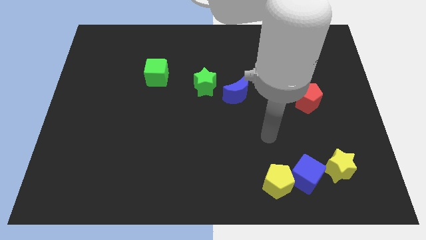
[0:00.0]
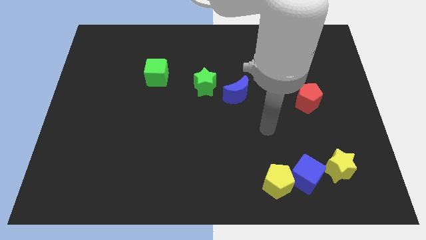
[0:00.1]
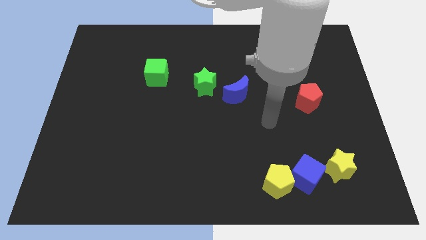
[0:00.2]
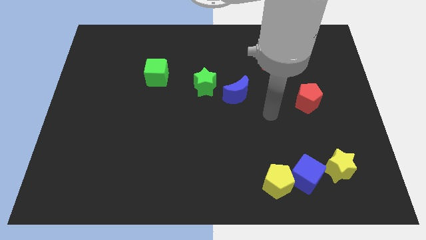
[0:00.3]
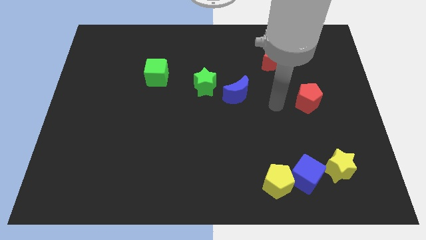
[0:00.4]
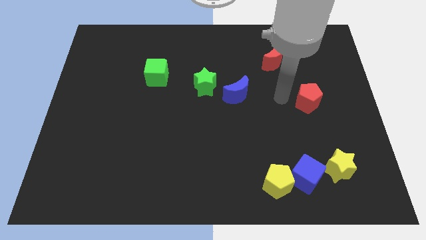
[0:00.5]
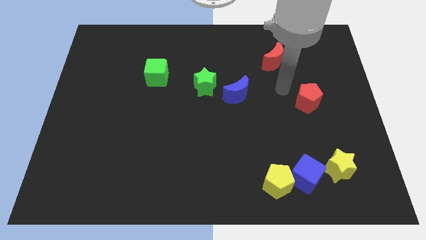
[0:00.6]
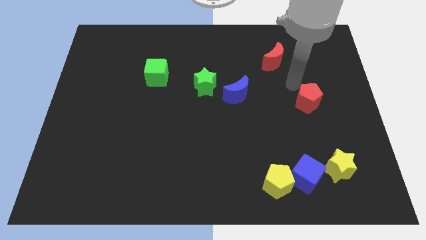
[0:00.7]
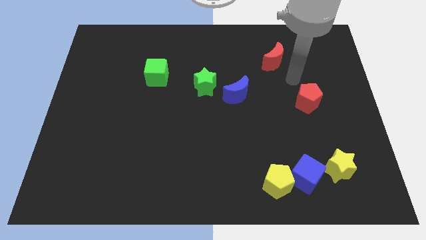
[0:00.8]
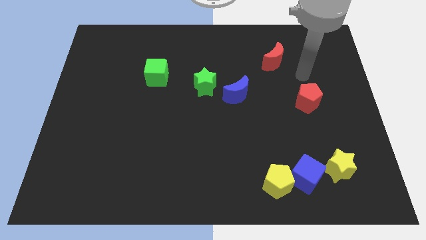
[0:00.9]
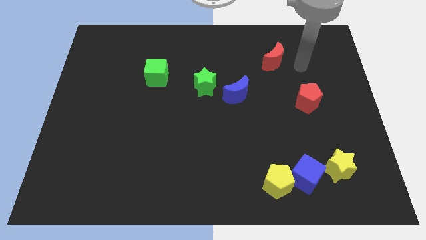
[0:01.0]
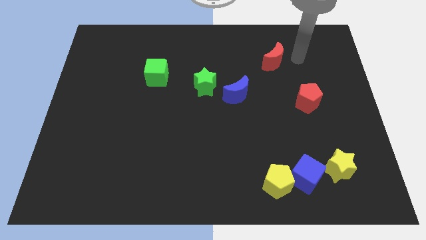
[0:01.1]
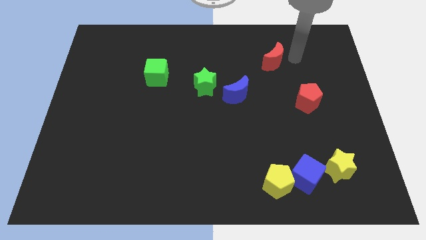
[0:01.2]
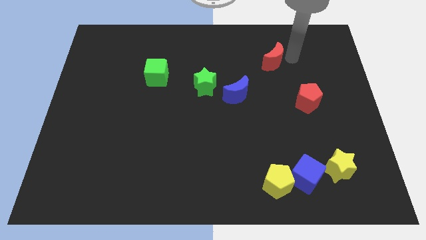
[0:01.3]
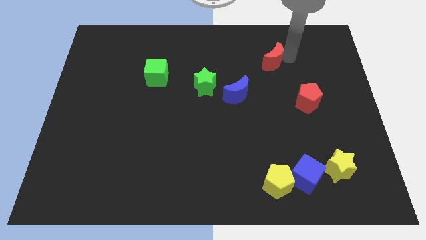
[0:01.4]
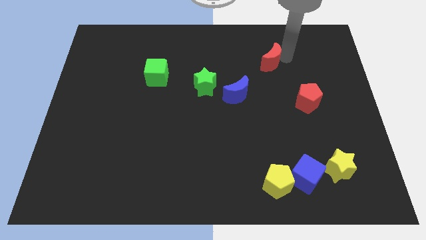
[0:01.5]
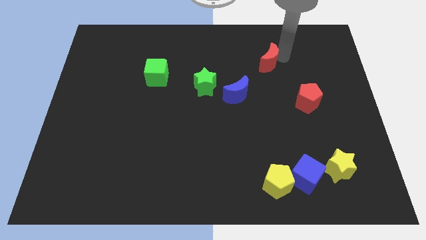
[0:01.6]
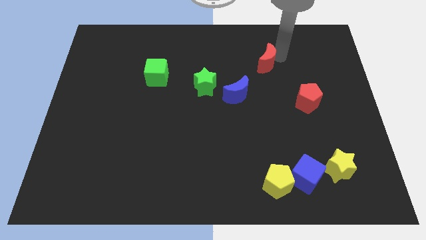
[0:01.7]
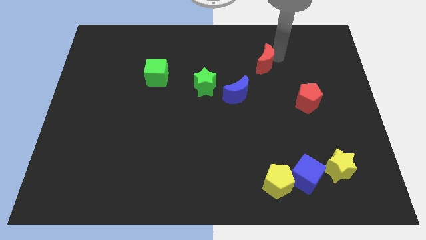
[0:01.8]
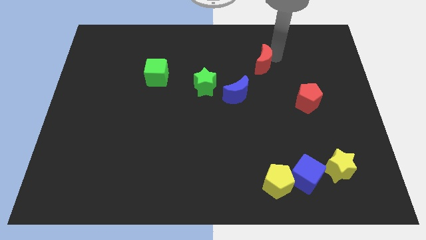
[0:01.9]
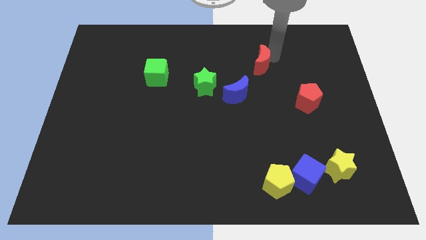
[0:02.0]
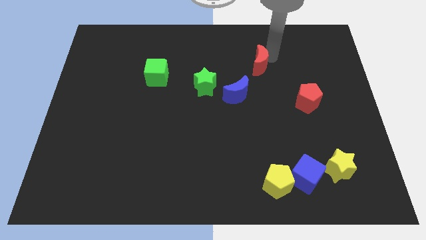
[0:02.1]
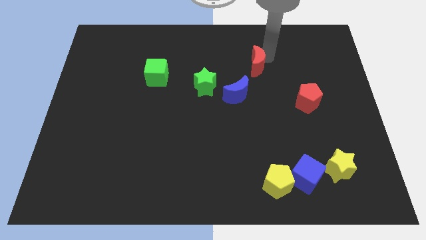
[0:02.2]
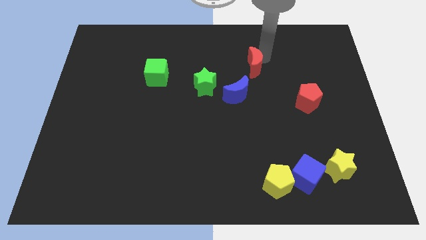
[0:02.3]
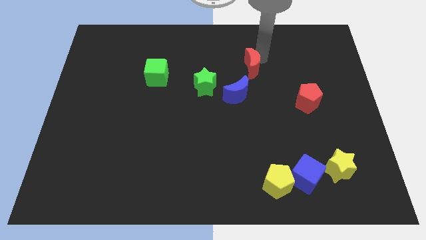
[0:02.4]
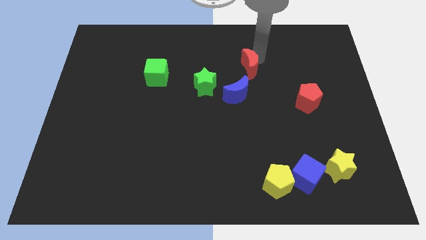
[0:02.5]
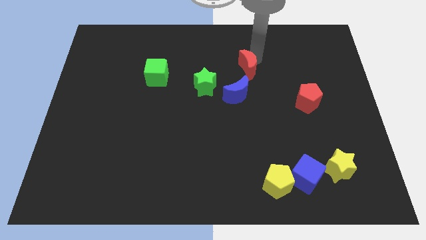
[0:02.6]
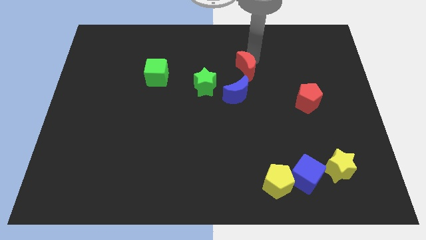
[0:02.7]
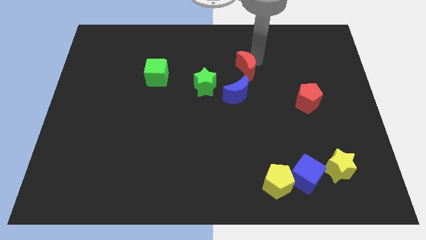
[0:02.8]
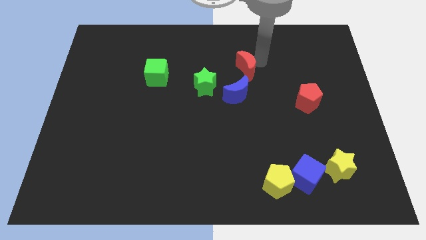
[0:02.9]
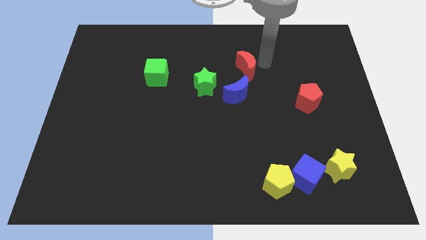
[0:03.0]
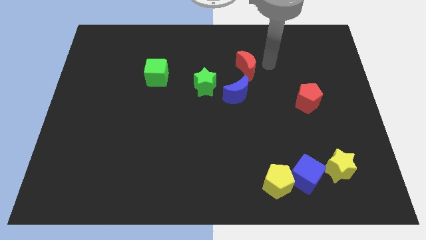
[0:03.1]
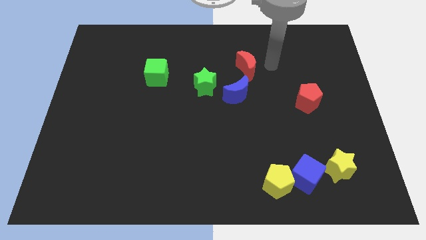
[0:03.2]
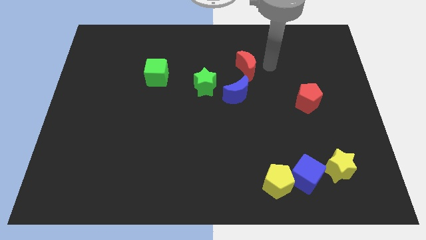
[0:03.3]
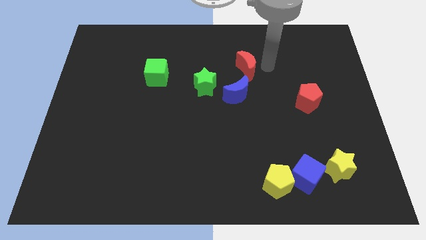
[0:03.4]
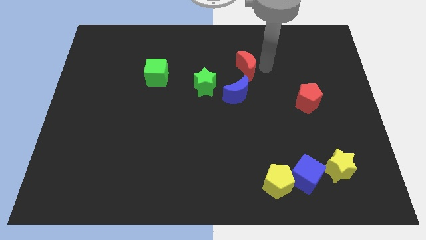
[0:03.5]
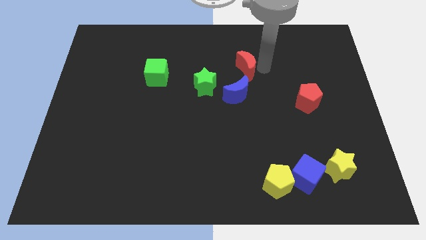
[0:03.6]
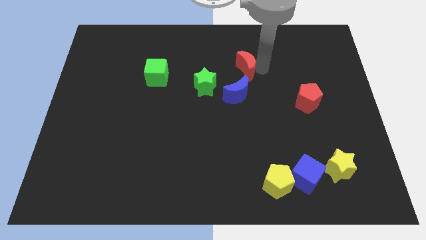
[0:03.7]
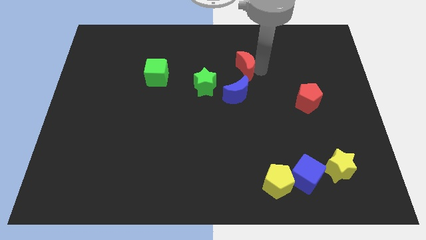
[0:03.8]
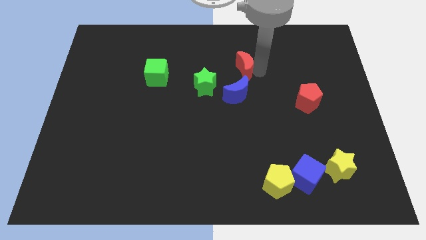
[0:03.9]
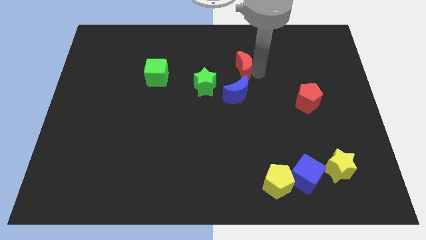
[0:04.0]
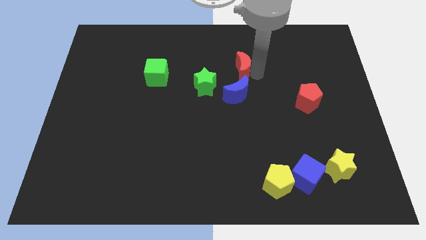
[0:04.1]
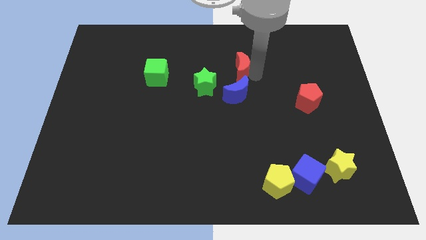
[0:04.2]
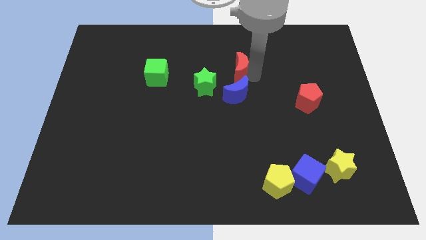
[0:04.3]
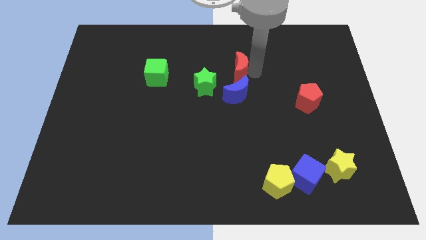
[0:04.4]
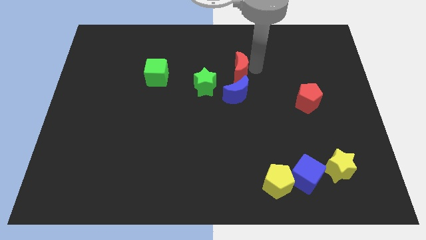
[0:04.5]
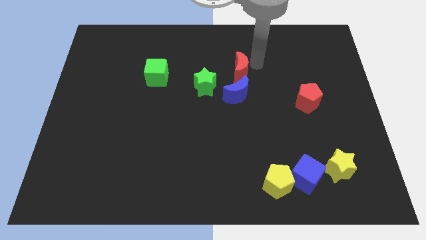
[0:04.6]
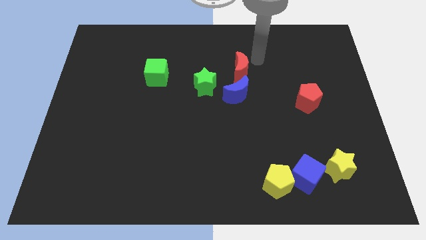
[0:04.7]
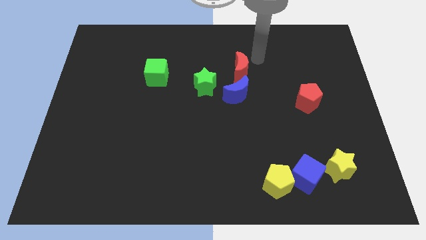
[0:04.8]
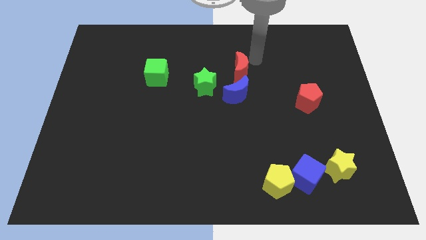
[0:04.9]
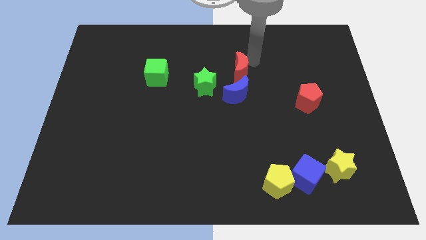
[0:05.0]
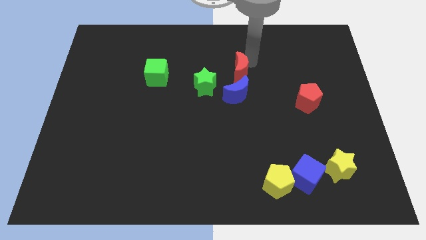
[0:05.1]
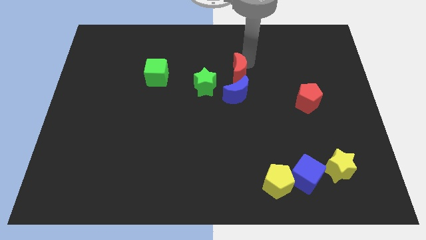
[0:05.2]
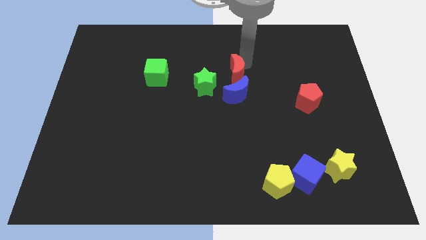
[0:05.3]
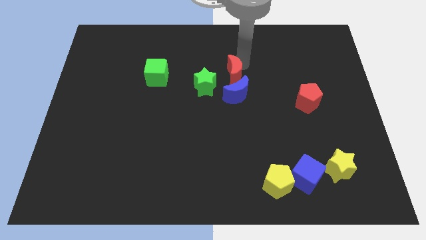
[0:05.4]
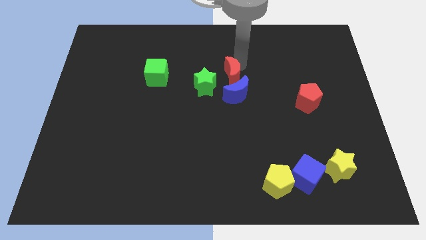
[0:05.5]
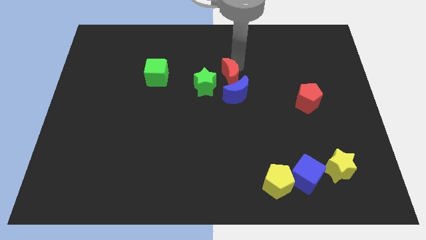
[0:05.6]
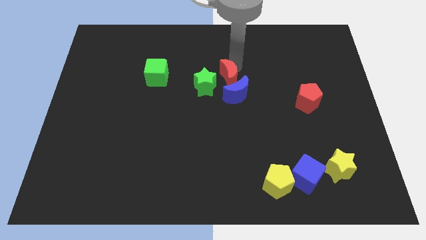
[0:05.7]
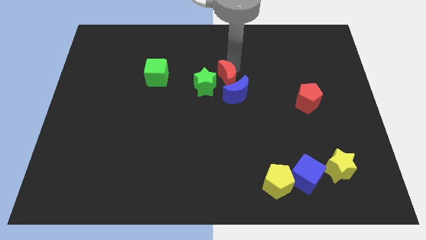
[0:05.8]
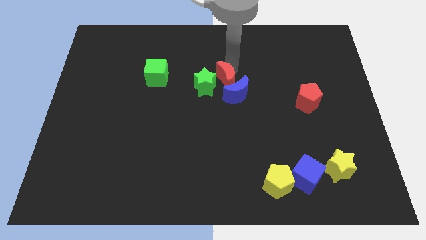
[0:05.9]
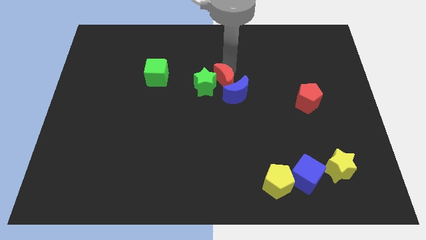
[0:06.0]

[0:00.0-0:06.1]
push the red moon diagonally down and to the right of the green star

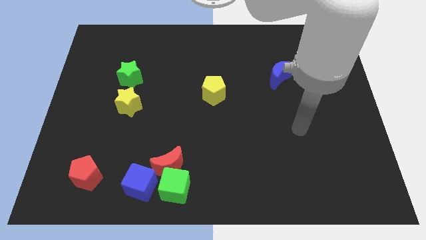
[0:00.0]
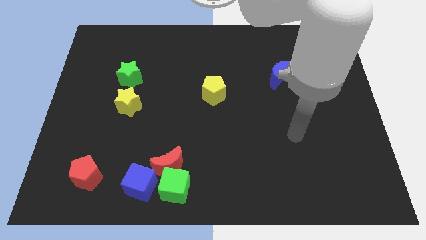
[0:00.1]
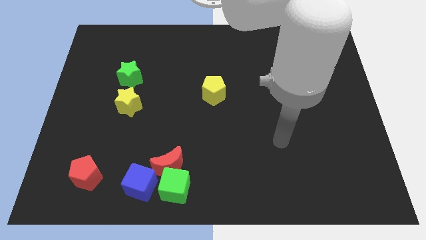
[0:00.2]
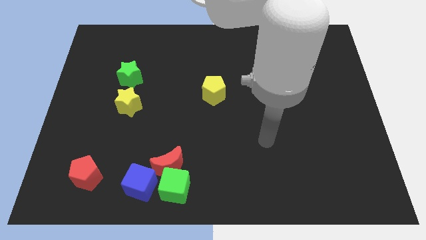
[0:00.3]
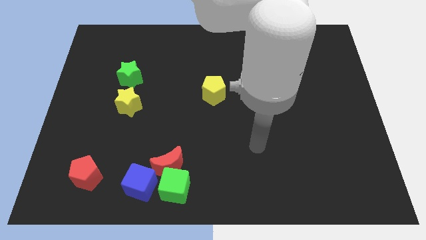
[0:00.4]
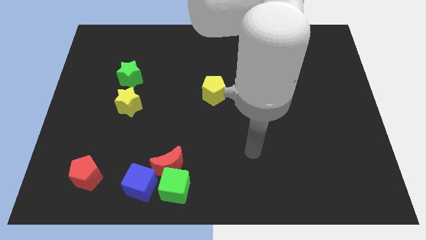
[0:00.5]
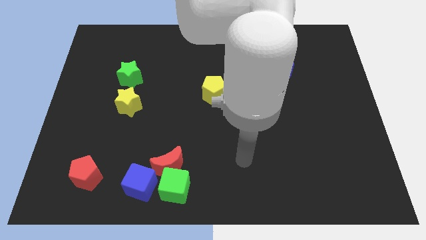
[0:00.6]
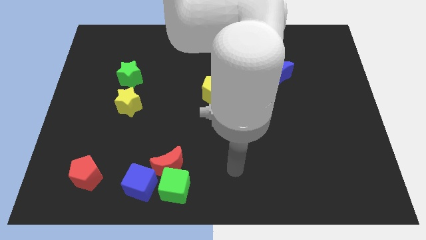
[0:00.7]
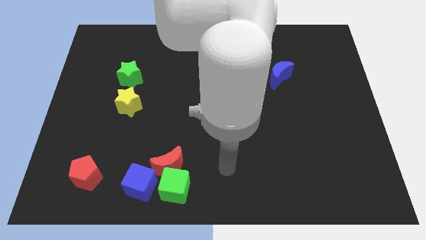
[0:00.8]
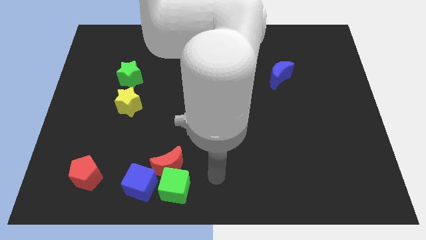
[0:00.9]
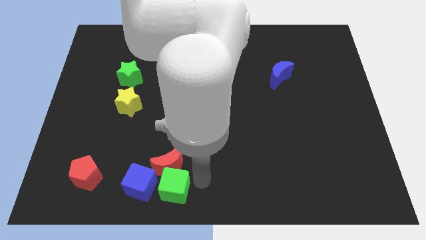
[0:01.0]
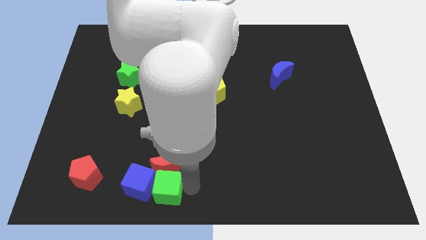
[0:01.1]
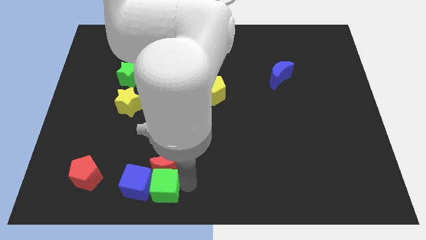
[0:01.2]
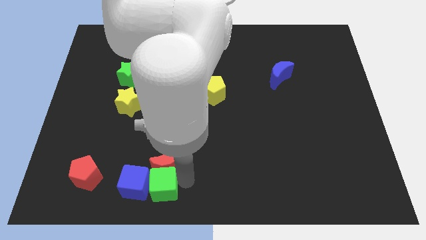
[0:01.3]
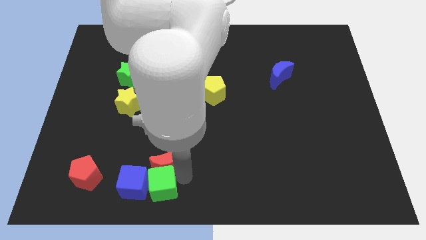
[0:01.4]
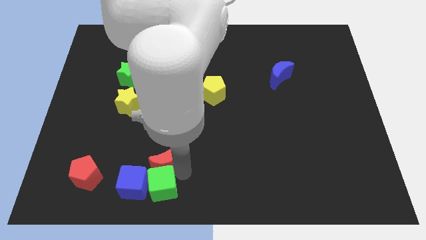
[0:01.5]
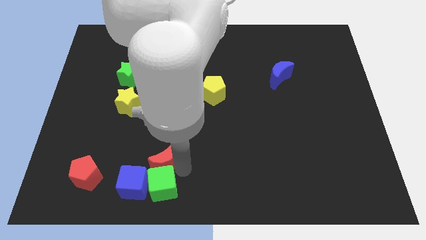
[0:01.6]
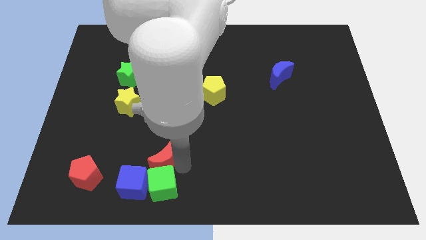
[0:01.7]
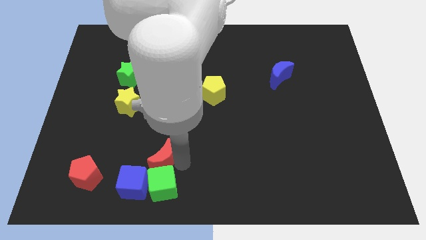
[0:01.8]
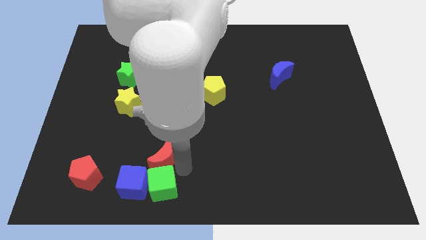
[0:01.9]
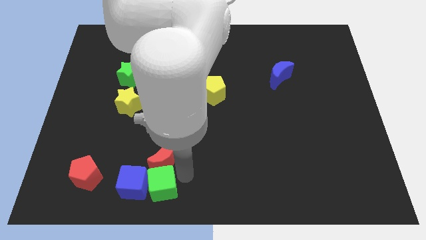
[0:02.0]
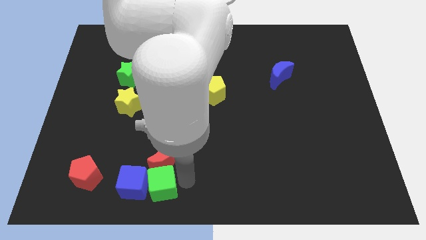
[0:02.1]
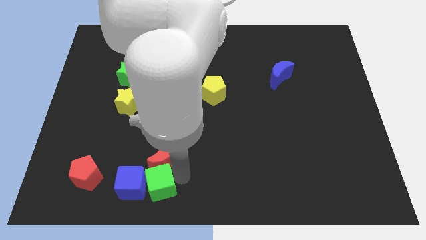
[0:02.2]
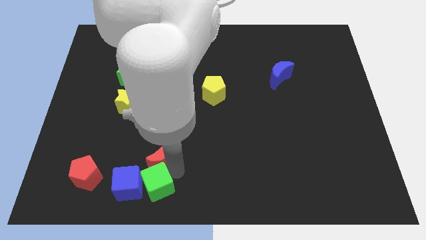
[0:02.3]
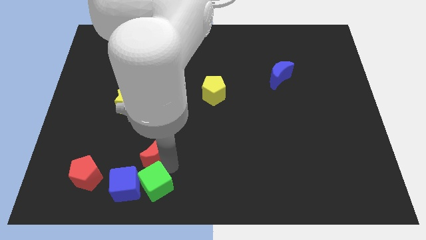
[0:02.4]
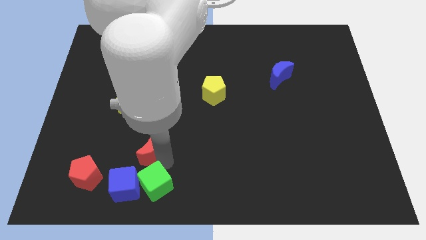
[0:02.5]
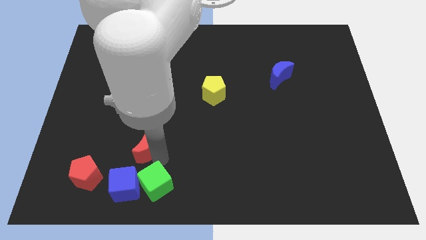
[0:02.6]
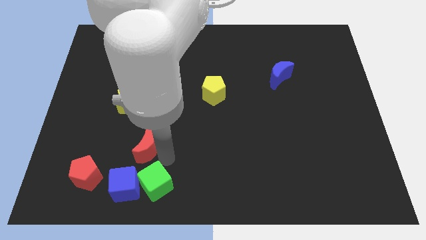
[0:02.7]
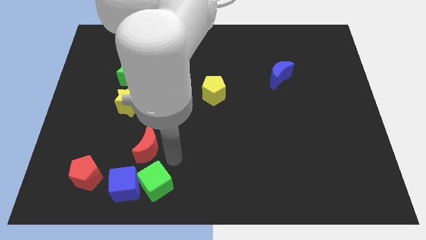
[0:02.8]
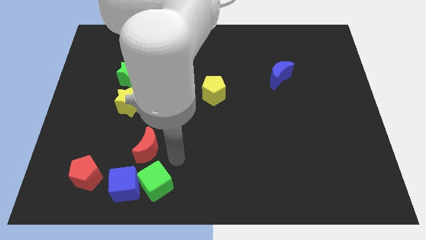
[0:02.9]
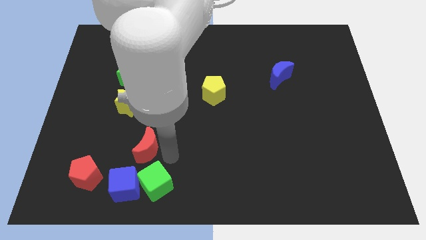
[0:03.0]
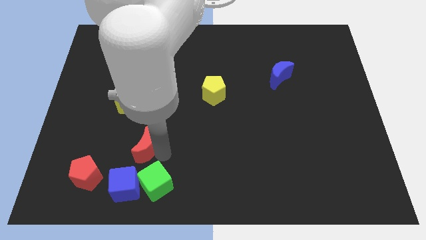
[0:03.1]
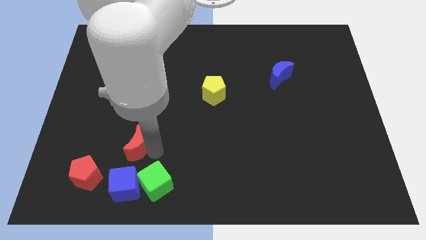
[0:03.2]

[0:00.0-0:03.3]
push the red moon to the bottom of the yellow star
